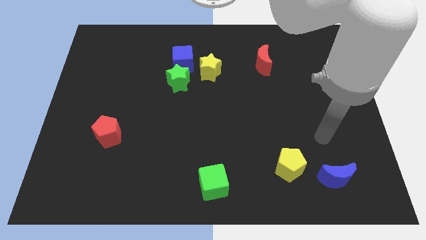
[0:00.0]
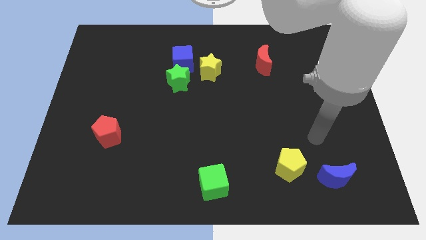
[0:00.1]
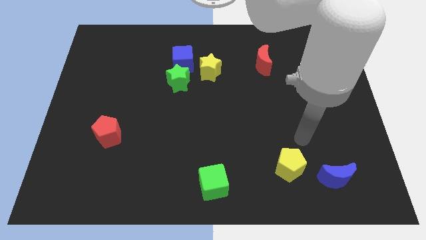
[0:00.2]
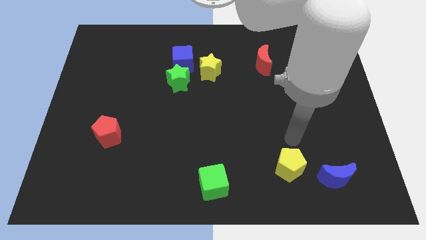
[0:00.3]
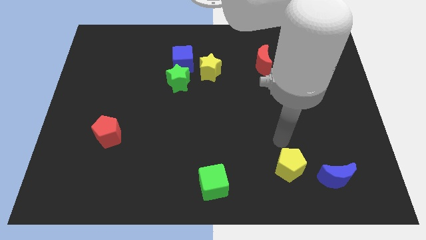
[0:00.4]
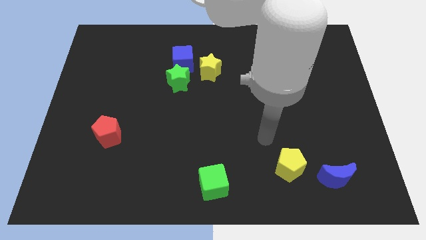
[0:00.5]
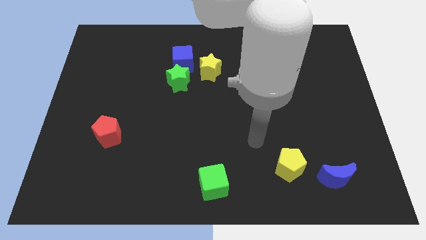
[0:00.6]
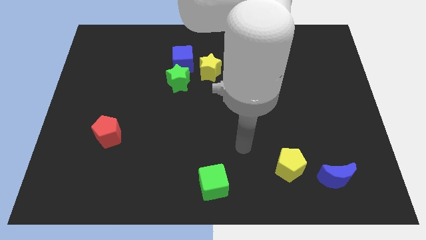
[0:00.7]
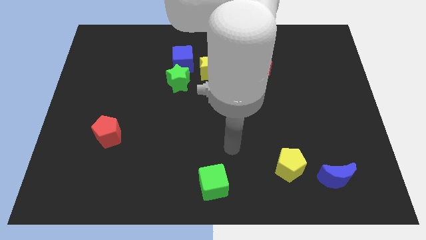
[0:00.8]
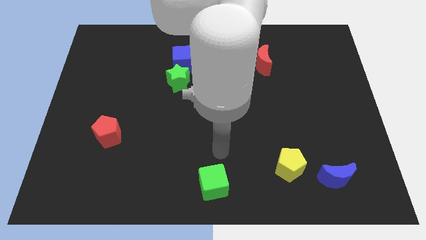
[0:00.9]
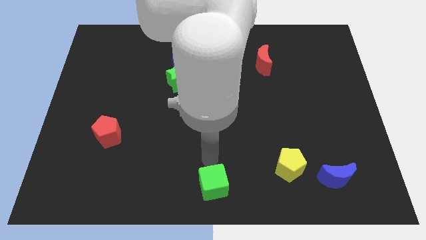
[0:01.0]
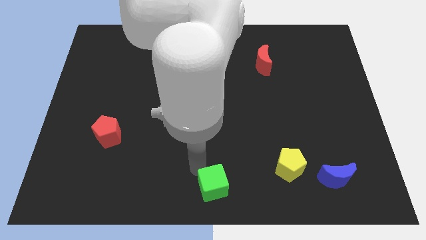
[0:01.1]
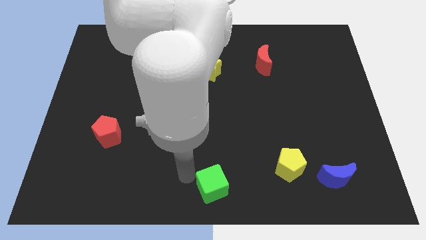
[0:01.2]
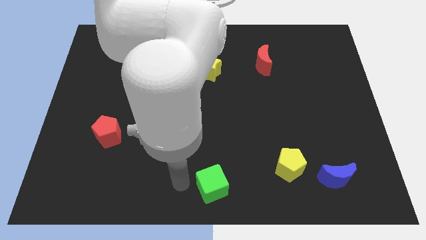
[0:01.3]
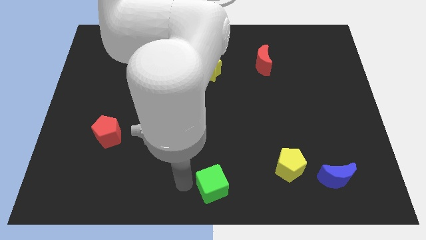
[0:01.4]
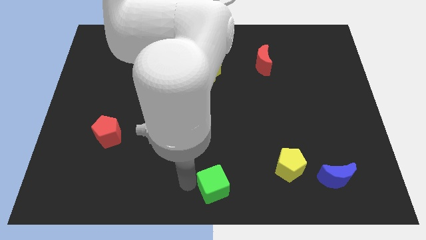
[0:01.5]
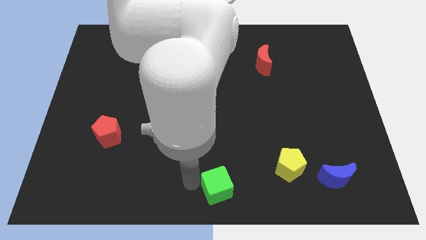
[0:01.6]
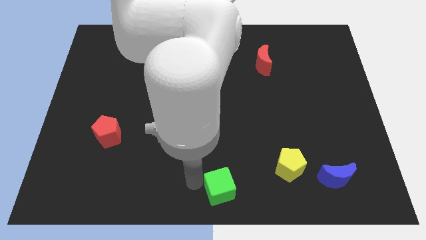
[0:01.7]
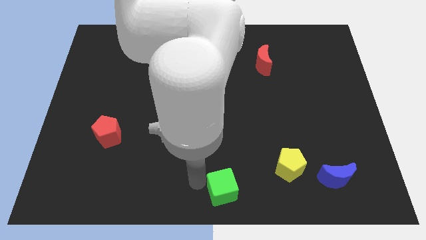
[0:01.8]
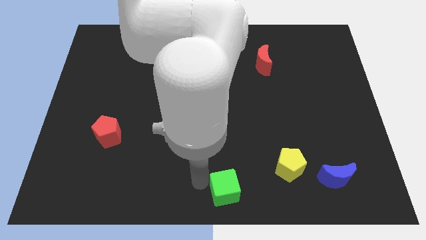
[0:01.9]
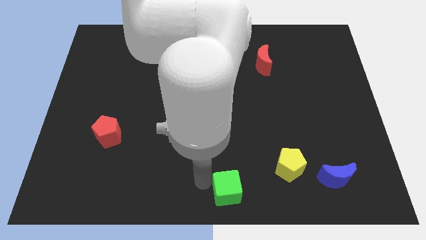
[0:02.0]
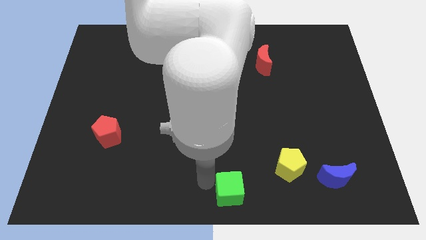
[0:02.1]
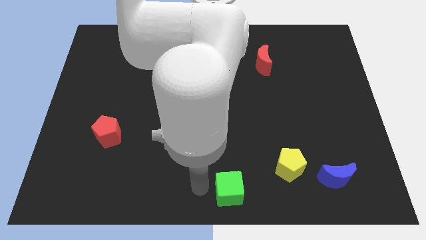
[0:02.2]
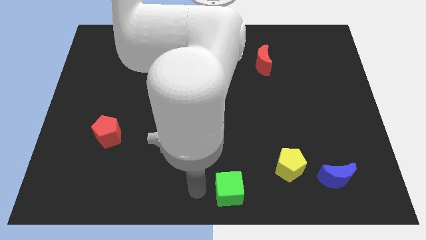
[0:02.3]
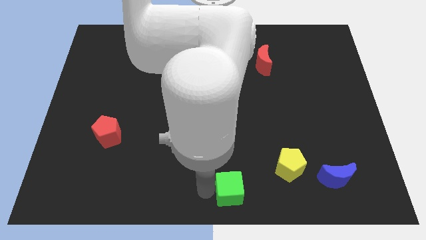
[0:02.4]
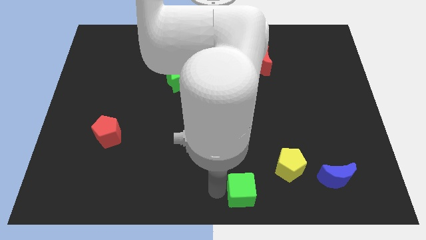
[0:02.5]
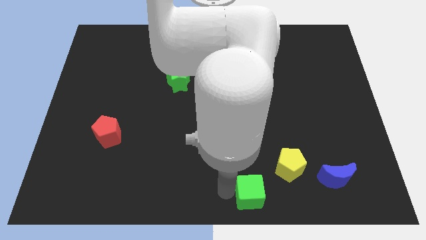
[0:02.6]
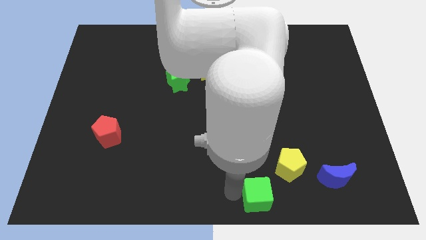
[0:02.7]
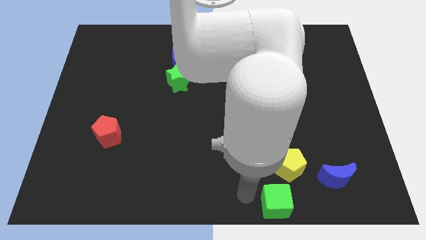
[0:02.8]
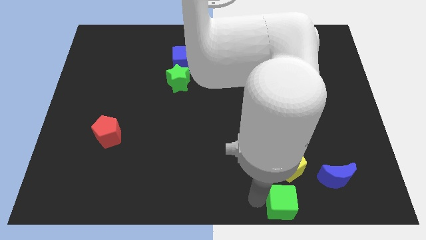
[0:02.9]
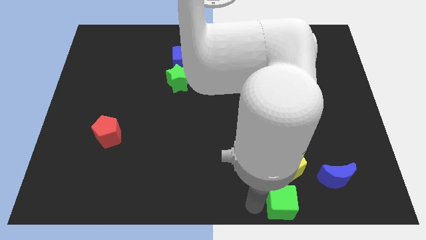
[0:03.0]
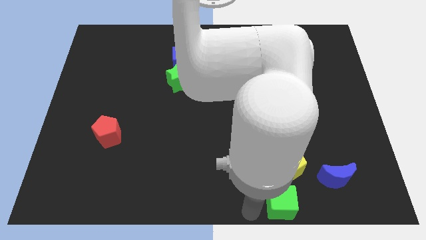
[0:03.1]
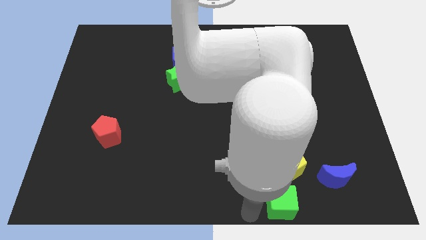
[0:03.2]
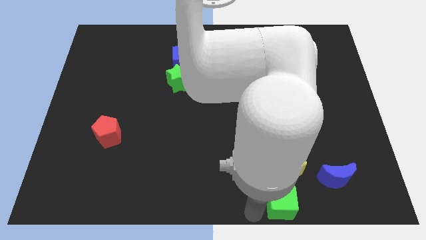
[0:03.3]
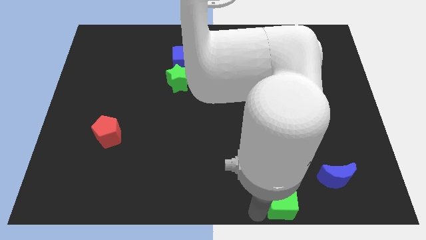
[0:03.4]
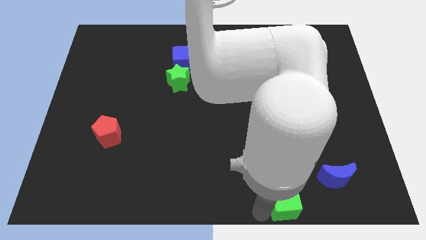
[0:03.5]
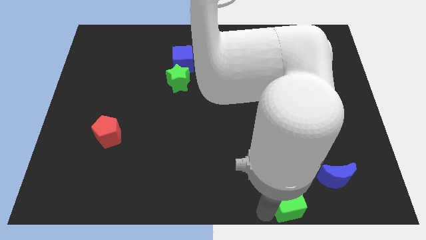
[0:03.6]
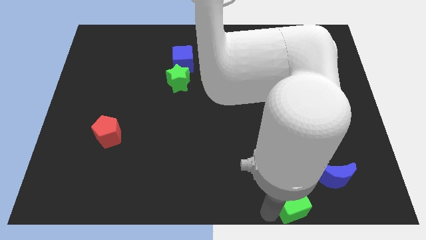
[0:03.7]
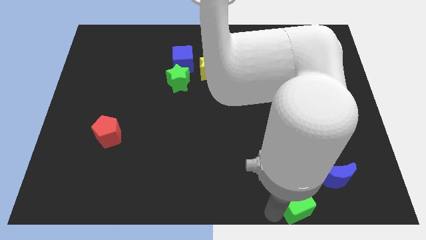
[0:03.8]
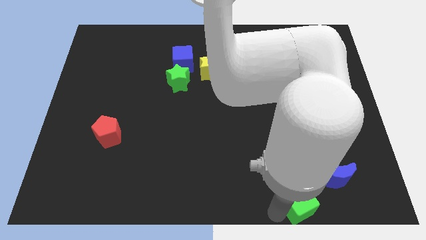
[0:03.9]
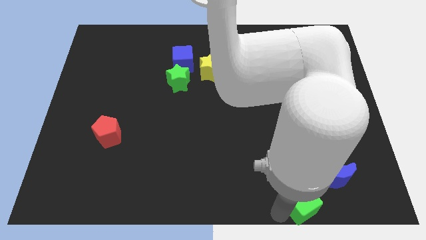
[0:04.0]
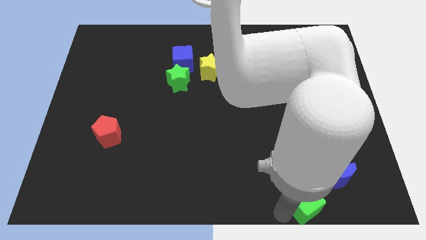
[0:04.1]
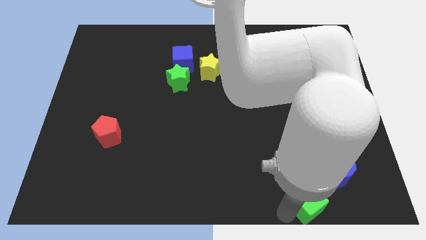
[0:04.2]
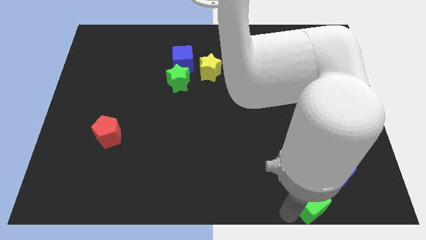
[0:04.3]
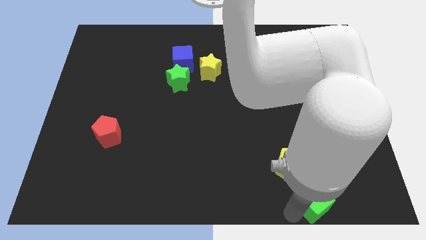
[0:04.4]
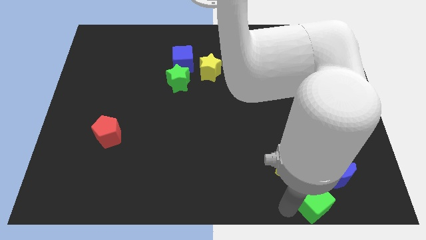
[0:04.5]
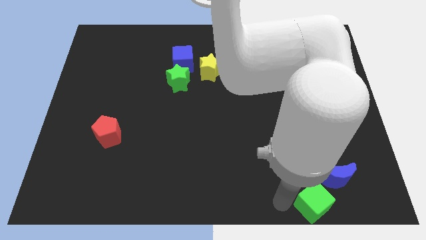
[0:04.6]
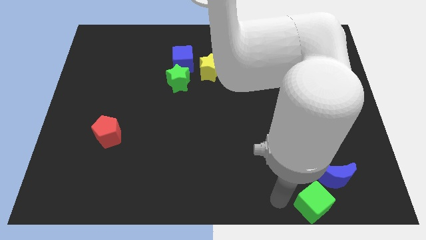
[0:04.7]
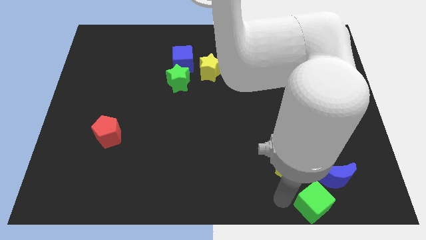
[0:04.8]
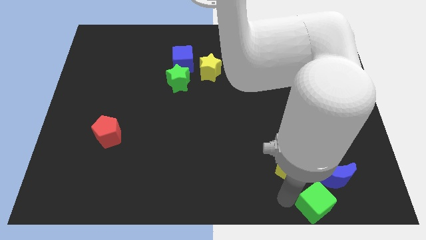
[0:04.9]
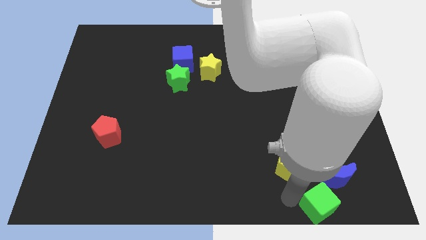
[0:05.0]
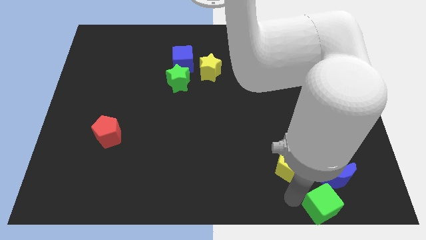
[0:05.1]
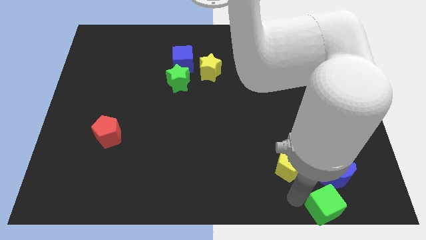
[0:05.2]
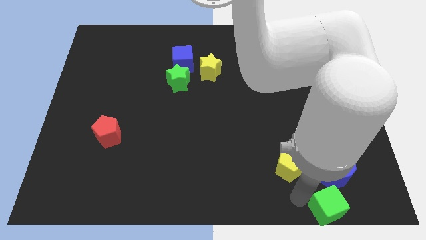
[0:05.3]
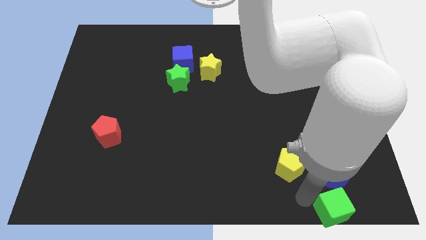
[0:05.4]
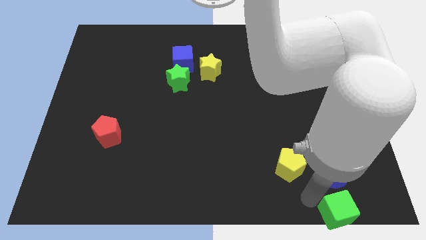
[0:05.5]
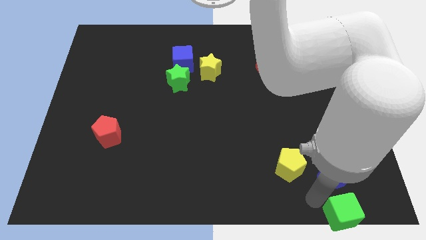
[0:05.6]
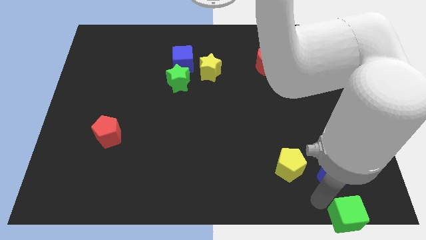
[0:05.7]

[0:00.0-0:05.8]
put the green cube to the lower right corner

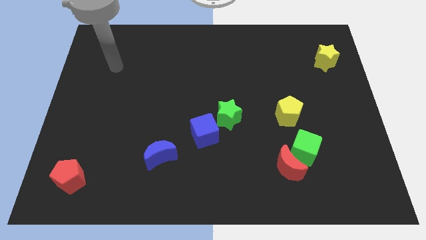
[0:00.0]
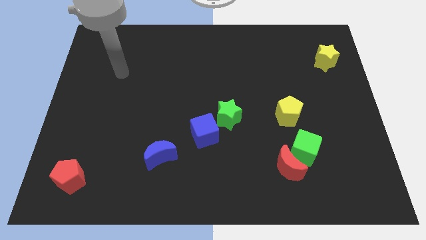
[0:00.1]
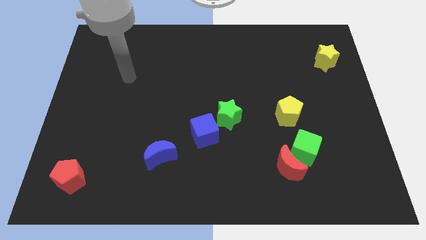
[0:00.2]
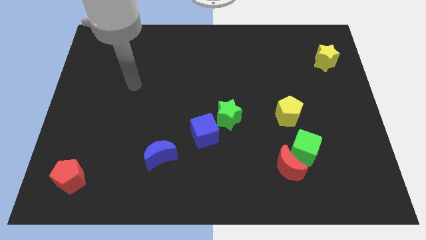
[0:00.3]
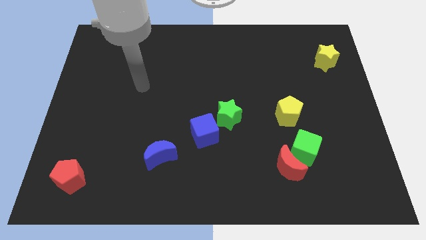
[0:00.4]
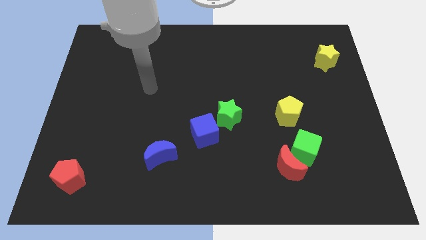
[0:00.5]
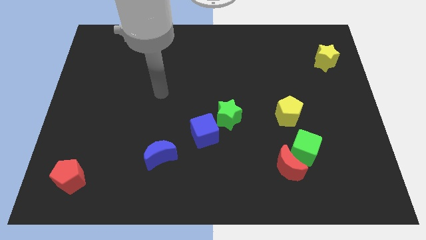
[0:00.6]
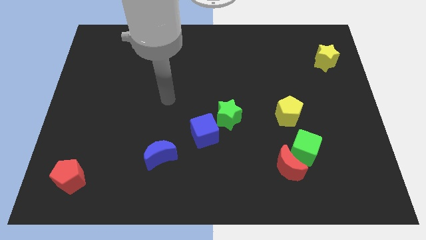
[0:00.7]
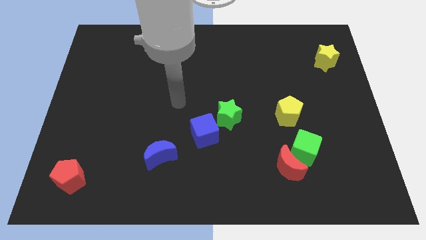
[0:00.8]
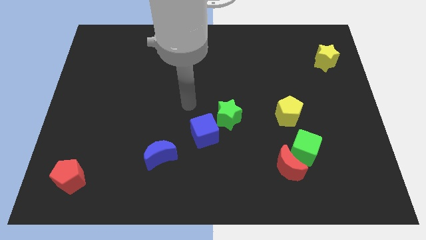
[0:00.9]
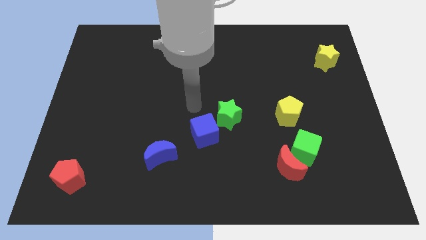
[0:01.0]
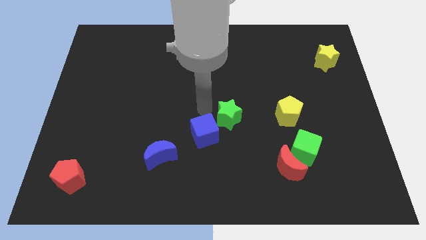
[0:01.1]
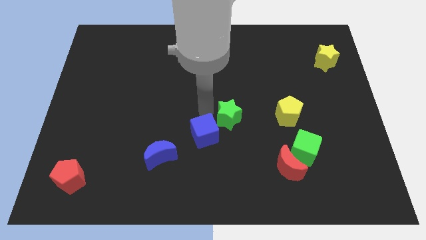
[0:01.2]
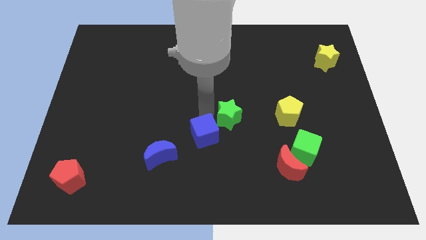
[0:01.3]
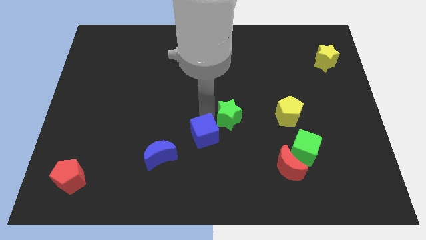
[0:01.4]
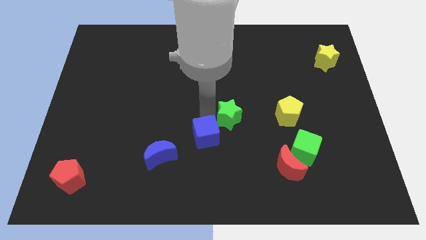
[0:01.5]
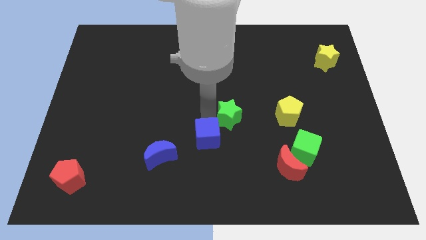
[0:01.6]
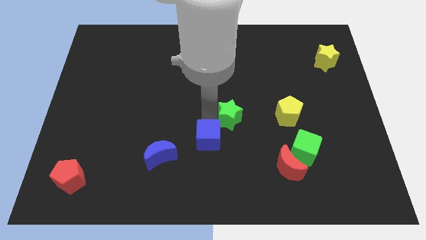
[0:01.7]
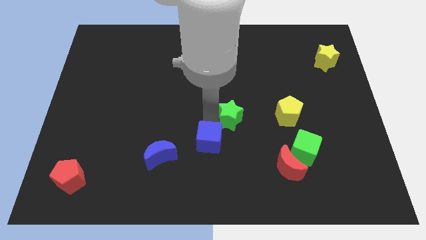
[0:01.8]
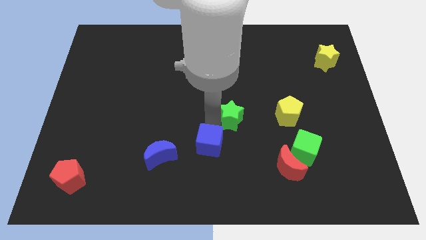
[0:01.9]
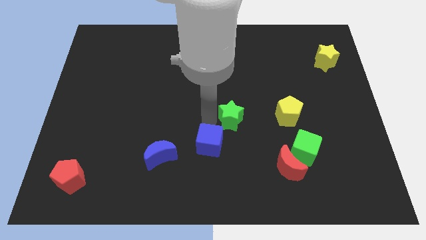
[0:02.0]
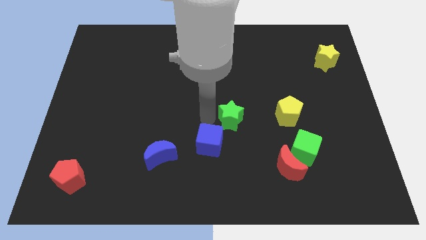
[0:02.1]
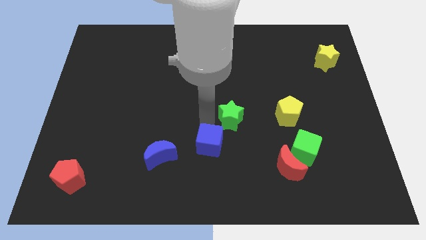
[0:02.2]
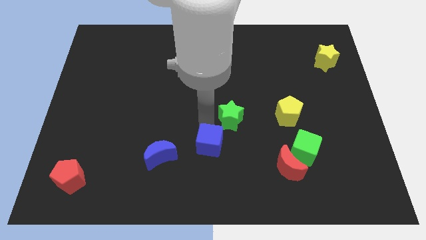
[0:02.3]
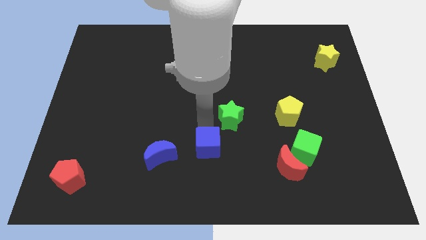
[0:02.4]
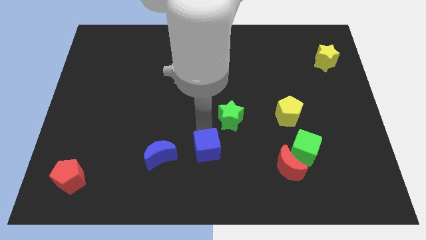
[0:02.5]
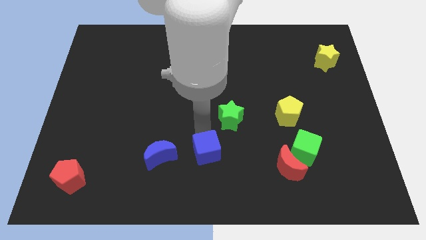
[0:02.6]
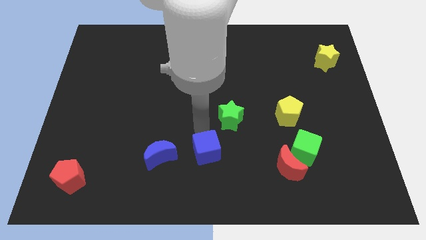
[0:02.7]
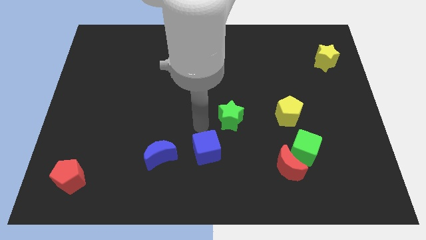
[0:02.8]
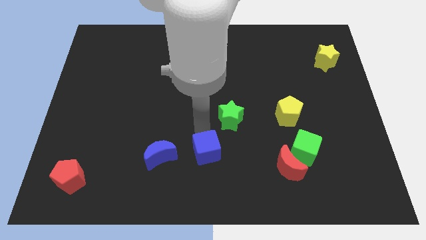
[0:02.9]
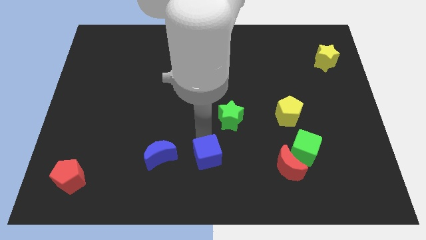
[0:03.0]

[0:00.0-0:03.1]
move the blue cube to the bottom
